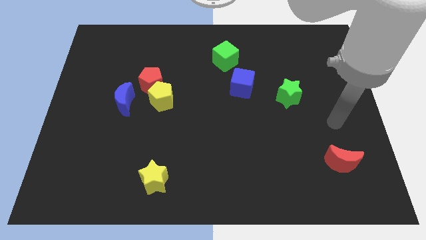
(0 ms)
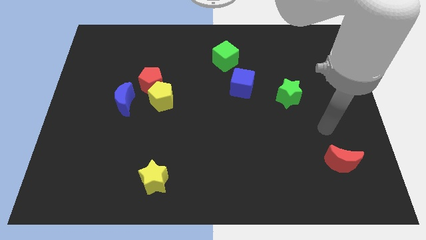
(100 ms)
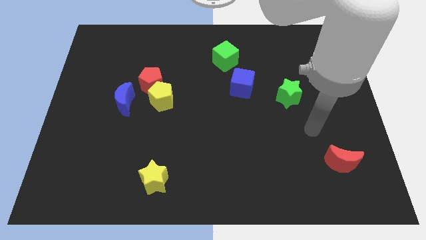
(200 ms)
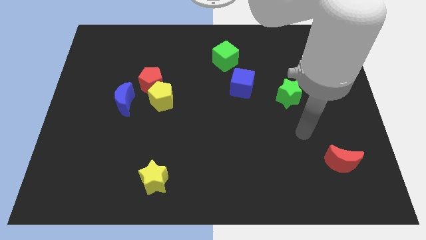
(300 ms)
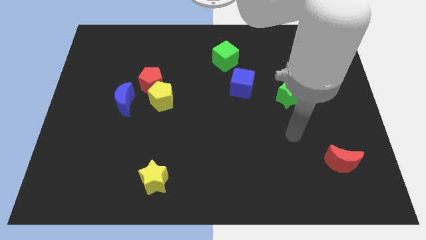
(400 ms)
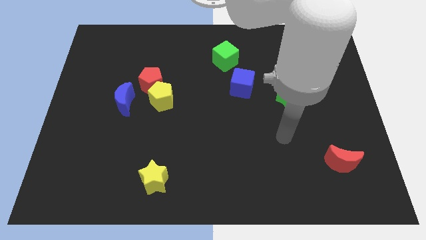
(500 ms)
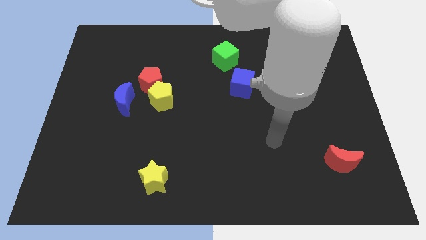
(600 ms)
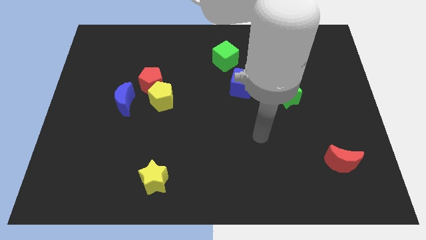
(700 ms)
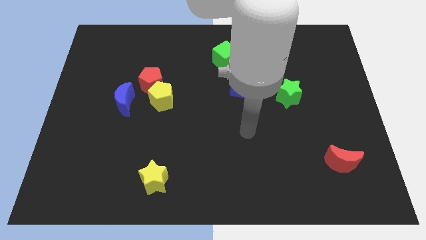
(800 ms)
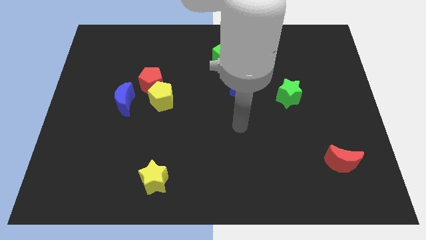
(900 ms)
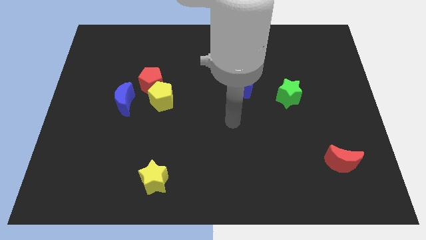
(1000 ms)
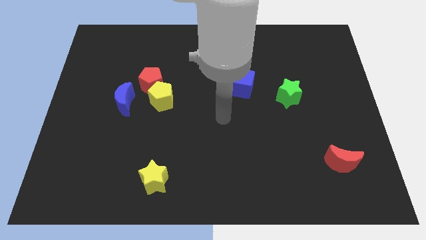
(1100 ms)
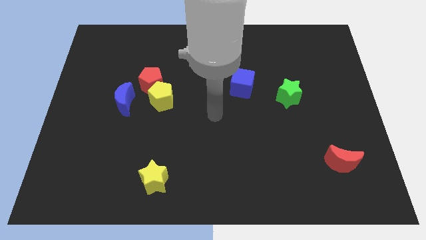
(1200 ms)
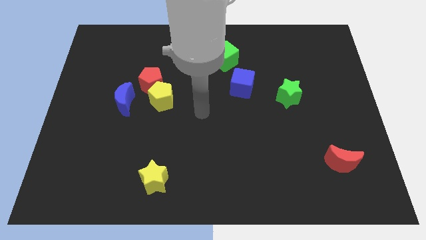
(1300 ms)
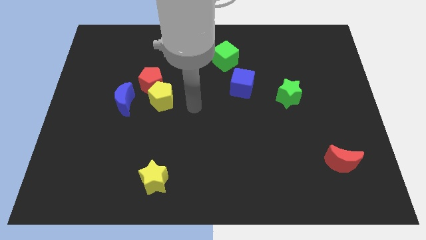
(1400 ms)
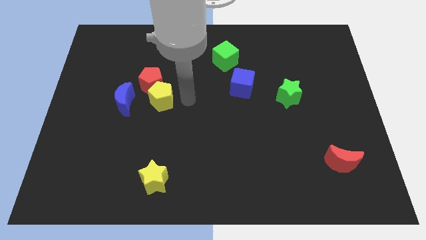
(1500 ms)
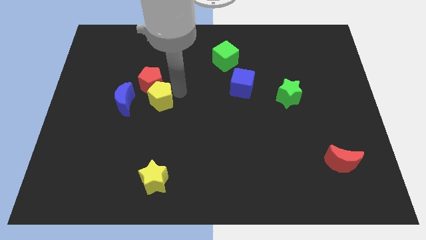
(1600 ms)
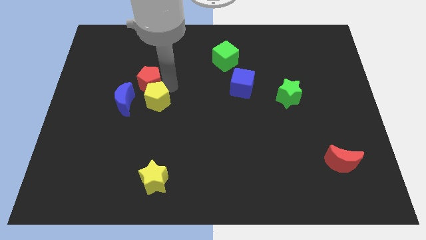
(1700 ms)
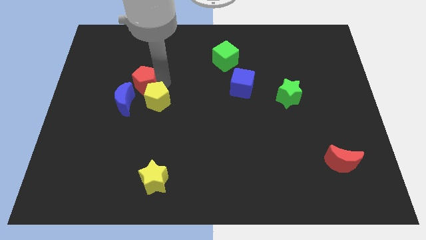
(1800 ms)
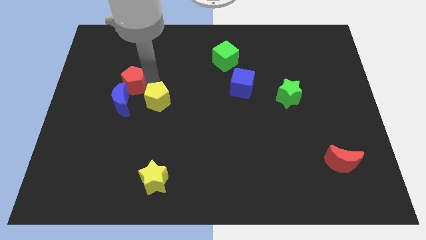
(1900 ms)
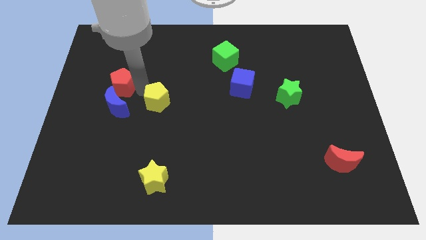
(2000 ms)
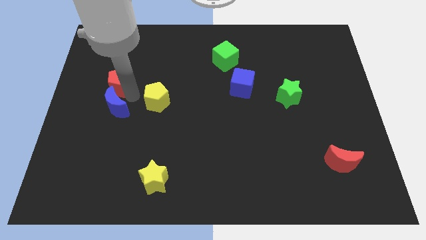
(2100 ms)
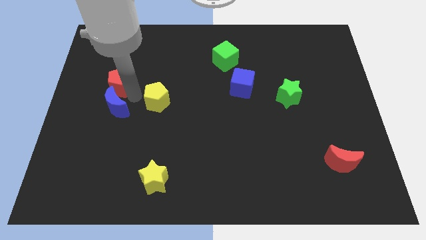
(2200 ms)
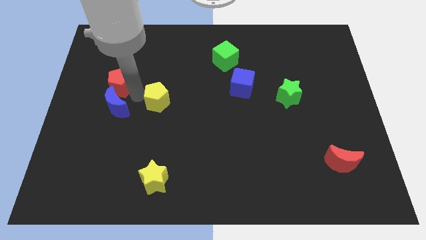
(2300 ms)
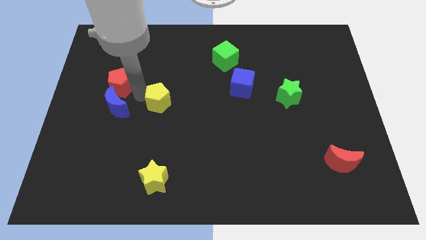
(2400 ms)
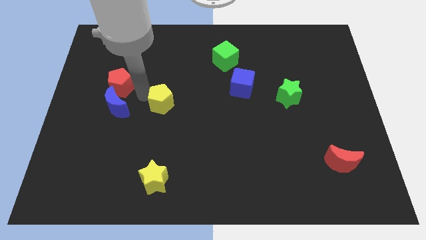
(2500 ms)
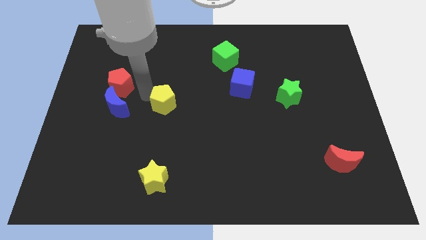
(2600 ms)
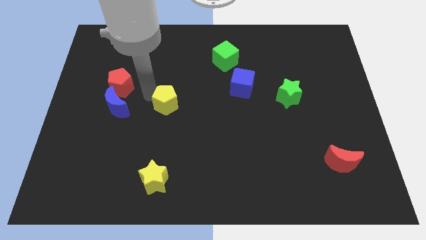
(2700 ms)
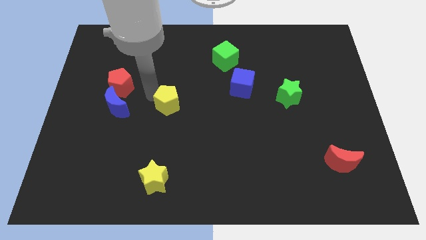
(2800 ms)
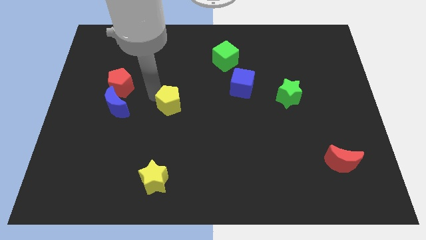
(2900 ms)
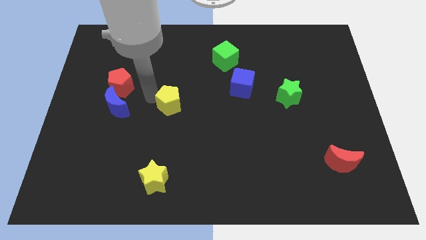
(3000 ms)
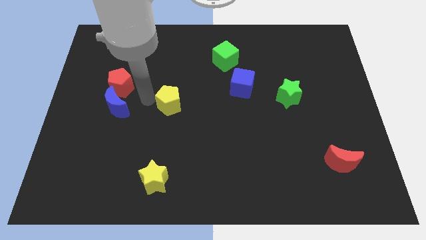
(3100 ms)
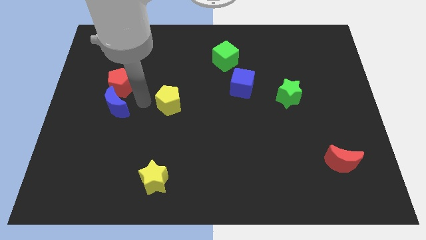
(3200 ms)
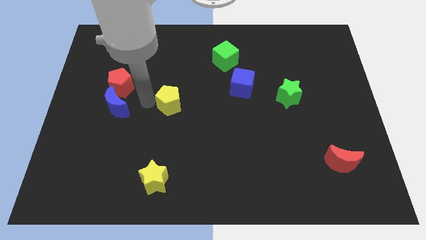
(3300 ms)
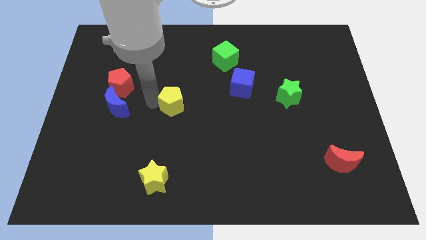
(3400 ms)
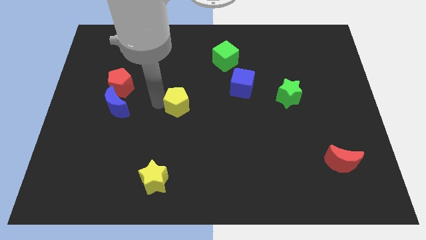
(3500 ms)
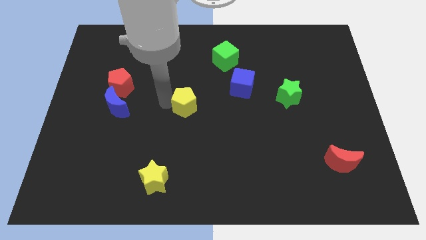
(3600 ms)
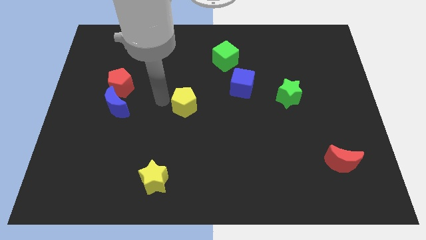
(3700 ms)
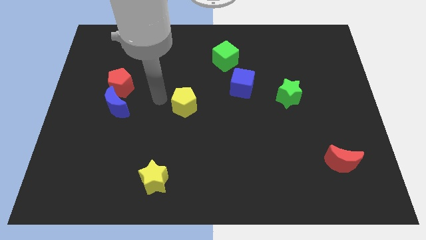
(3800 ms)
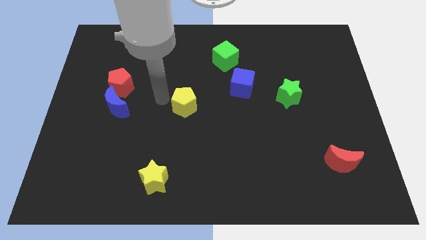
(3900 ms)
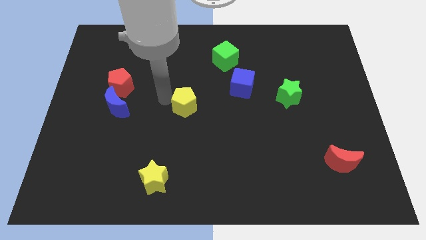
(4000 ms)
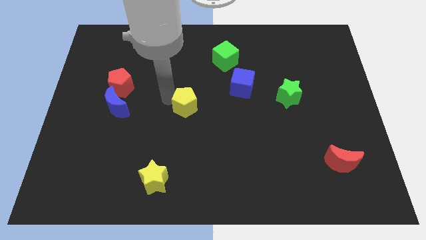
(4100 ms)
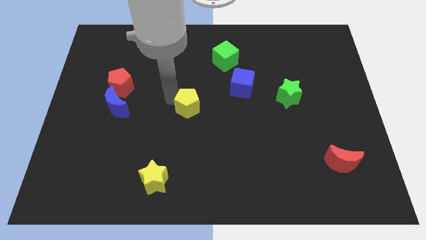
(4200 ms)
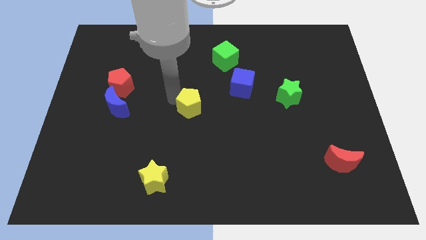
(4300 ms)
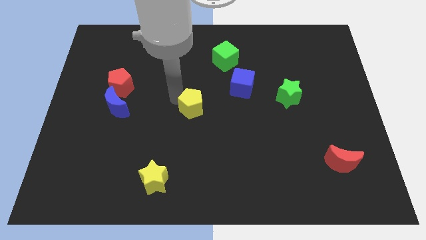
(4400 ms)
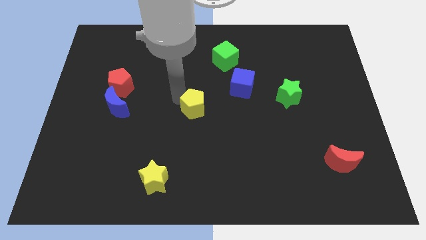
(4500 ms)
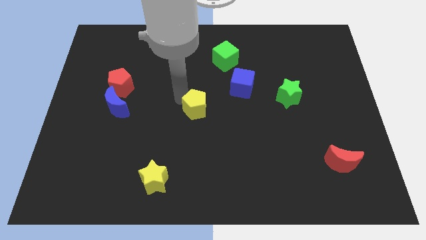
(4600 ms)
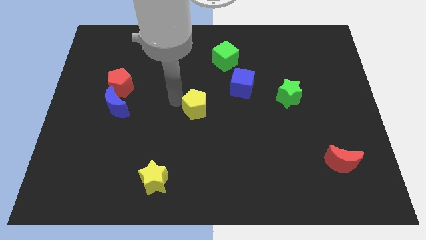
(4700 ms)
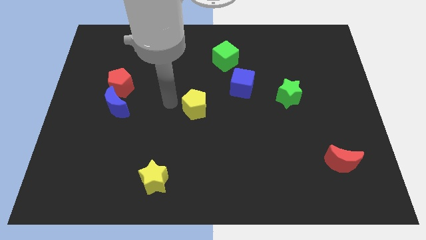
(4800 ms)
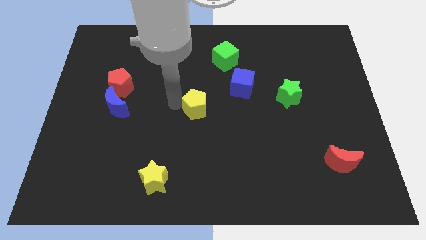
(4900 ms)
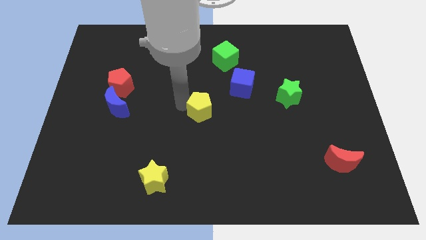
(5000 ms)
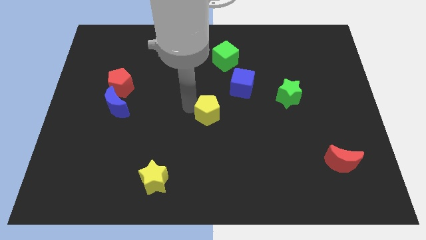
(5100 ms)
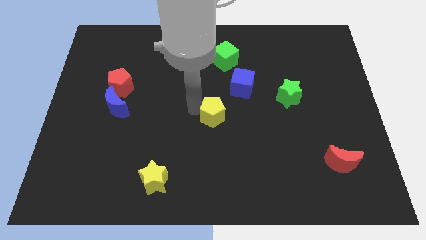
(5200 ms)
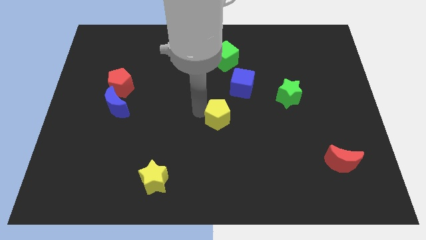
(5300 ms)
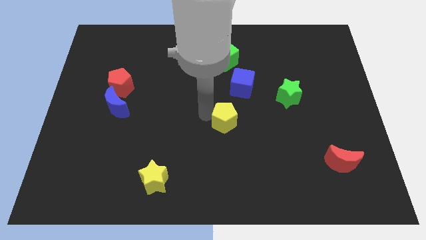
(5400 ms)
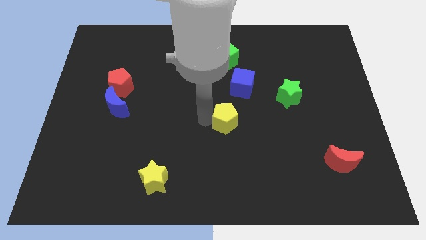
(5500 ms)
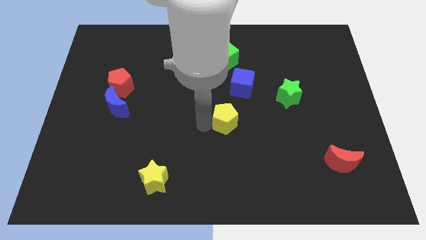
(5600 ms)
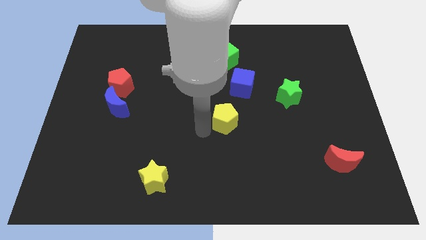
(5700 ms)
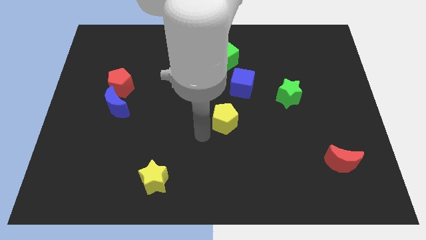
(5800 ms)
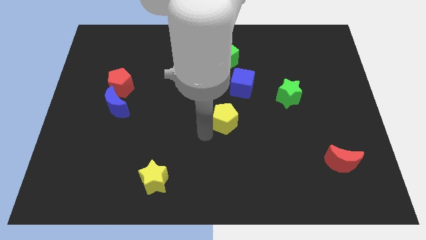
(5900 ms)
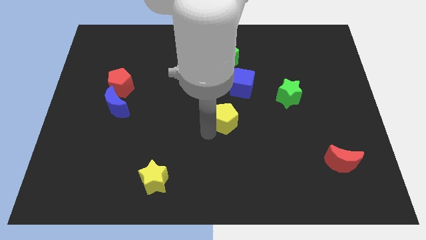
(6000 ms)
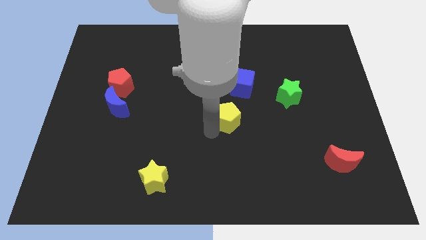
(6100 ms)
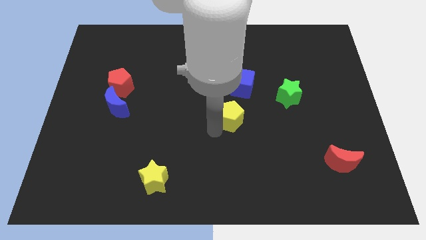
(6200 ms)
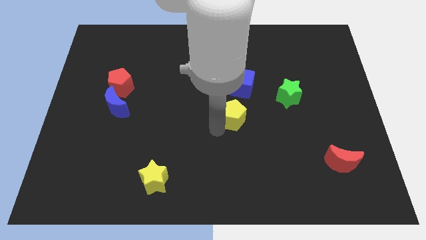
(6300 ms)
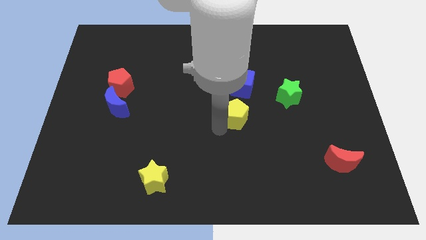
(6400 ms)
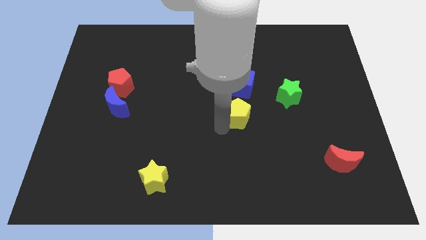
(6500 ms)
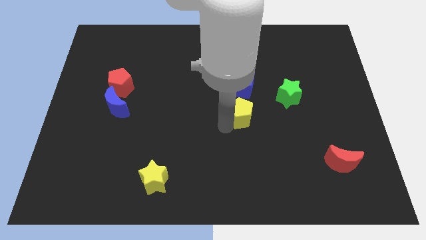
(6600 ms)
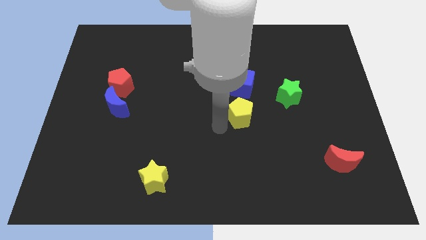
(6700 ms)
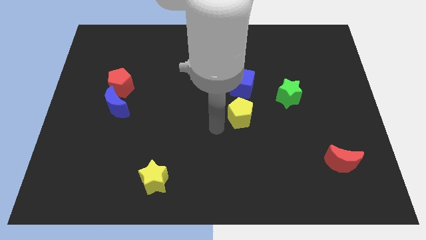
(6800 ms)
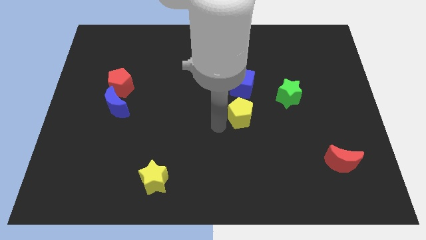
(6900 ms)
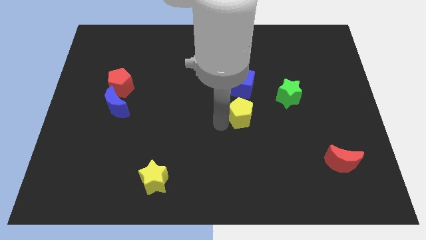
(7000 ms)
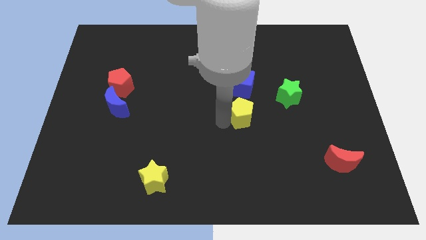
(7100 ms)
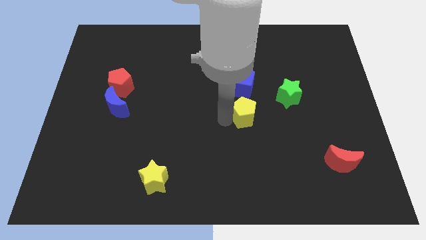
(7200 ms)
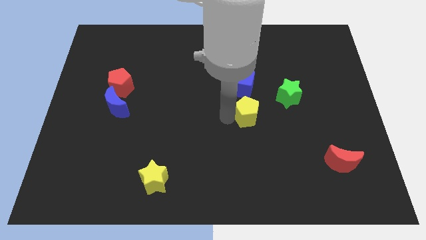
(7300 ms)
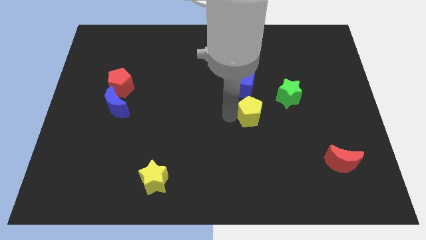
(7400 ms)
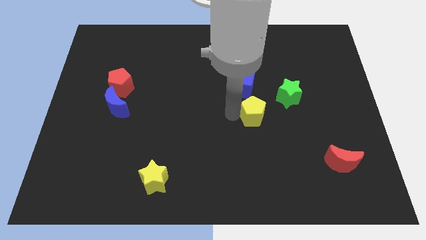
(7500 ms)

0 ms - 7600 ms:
slide the yellow pentagon to the bottom right of the blue cube
